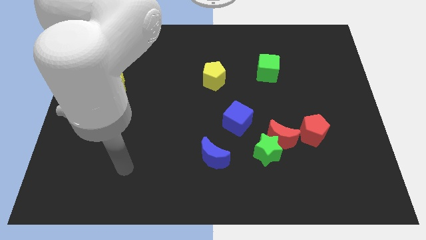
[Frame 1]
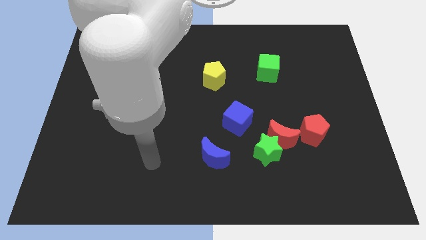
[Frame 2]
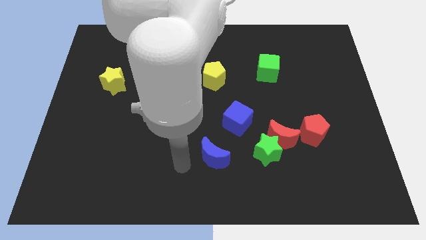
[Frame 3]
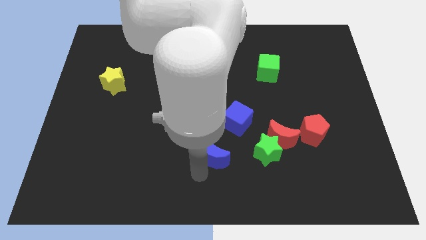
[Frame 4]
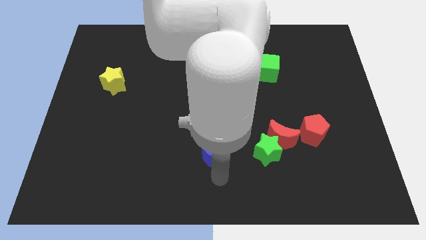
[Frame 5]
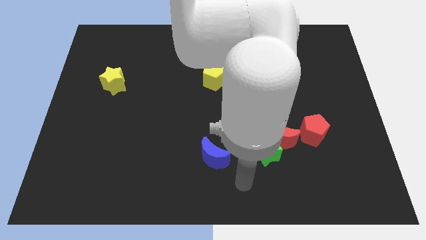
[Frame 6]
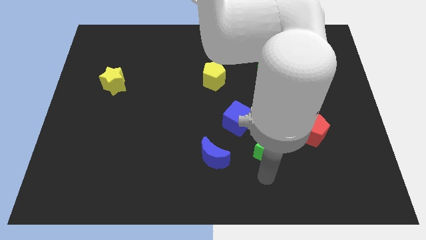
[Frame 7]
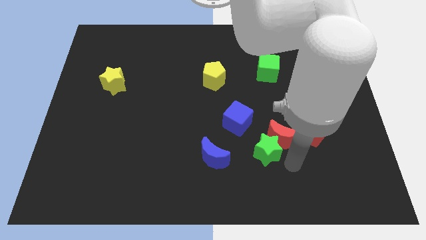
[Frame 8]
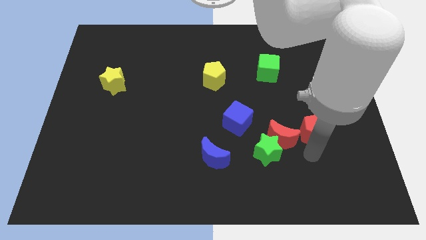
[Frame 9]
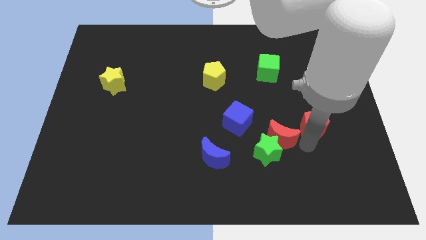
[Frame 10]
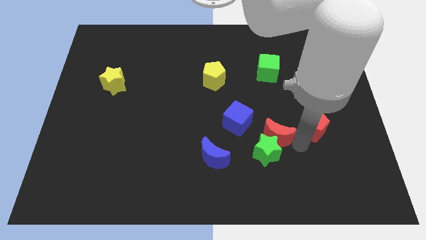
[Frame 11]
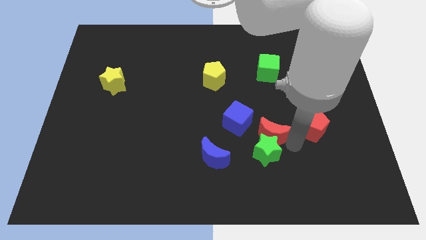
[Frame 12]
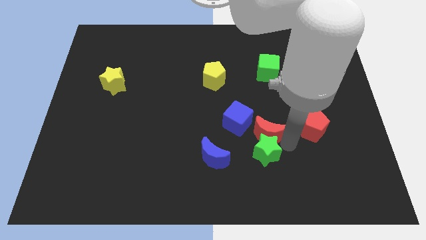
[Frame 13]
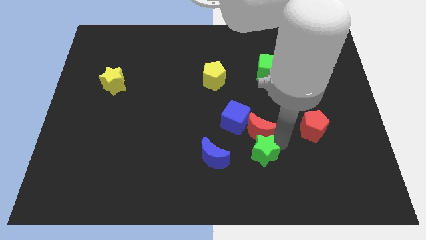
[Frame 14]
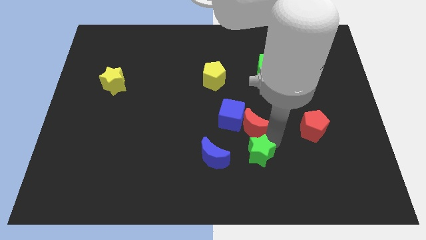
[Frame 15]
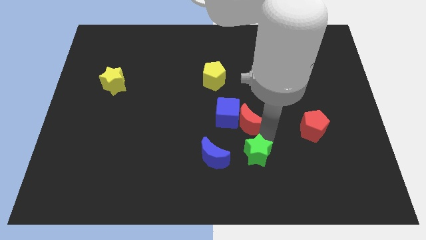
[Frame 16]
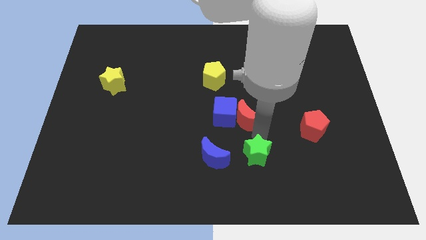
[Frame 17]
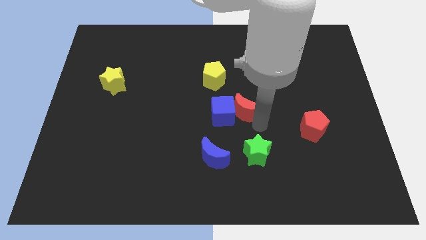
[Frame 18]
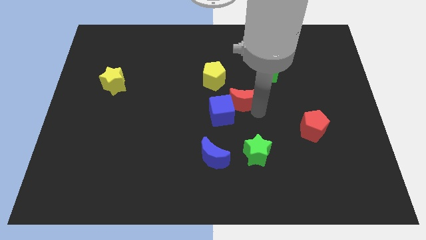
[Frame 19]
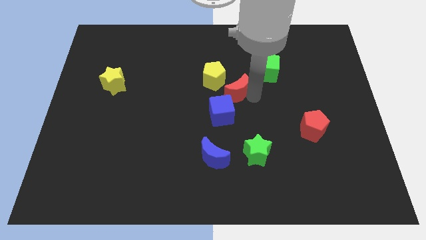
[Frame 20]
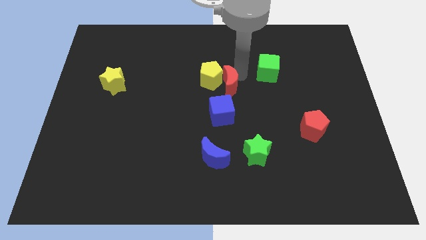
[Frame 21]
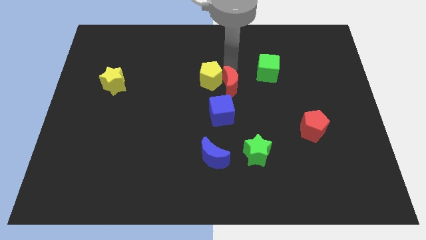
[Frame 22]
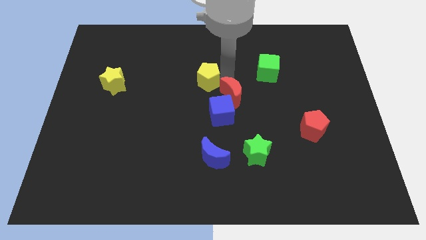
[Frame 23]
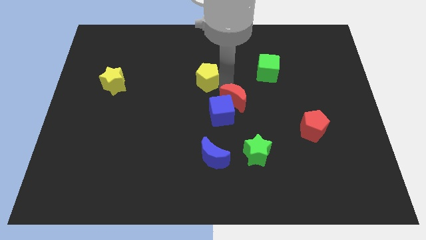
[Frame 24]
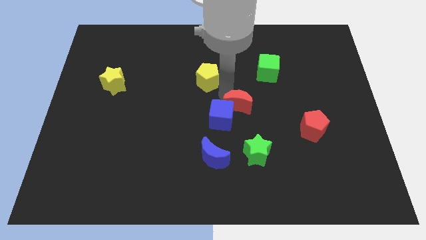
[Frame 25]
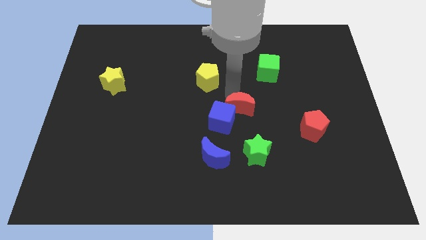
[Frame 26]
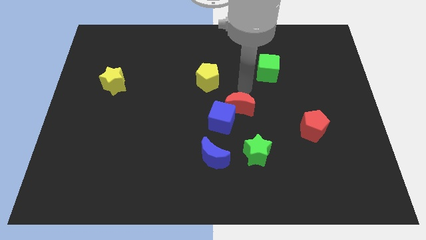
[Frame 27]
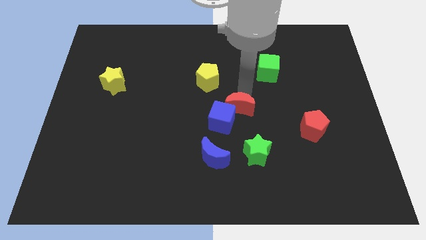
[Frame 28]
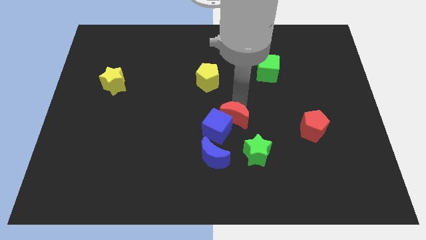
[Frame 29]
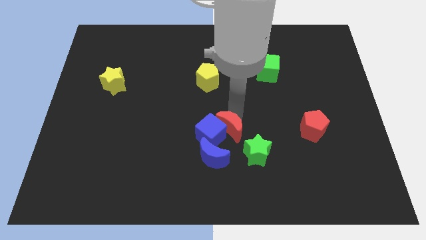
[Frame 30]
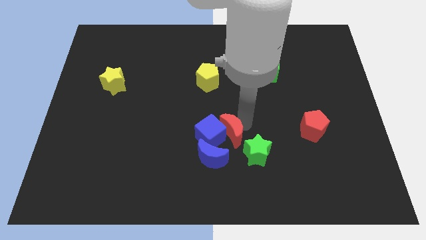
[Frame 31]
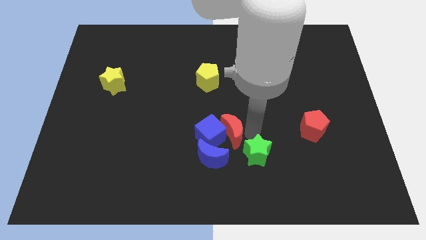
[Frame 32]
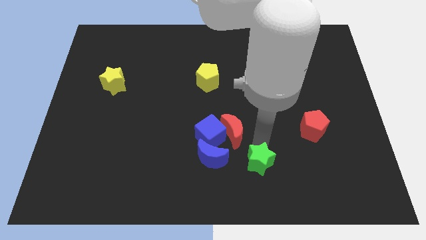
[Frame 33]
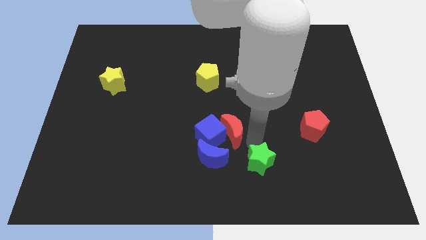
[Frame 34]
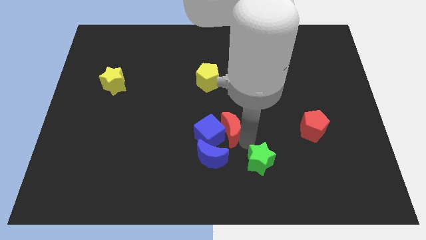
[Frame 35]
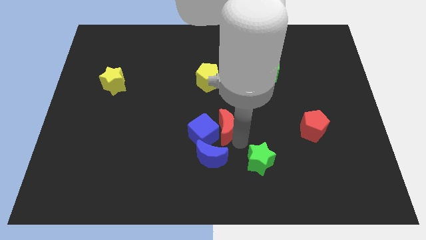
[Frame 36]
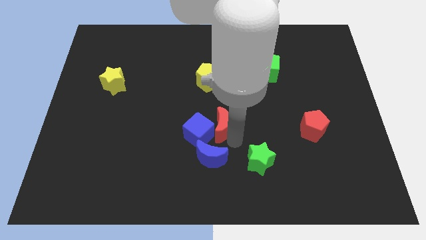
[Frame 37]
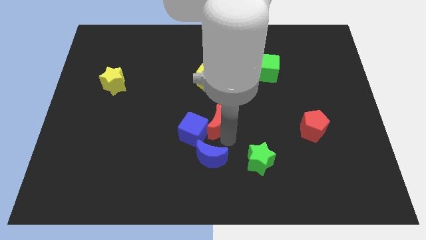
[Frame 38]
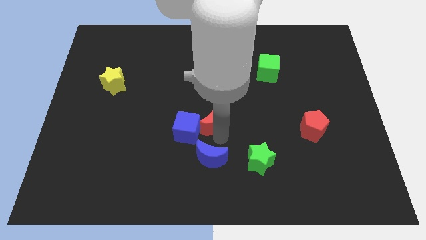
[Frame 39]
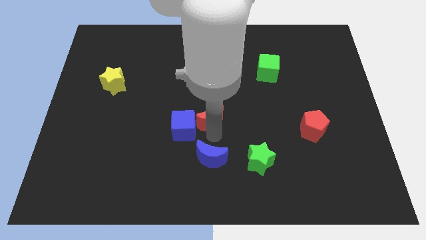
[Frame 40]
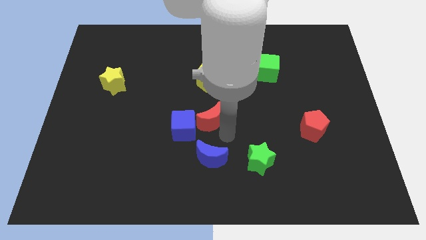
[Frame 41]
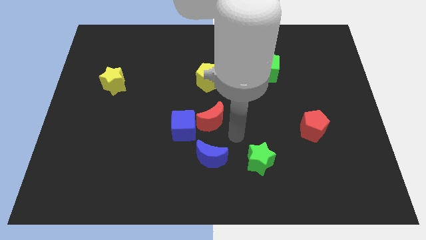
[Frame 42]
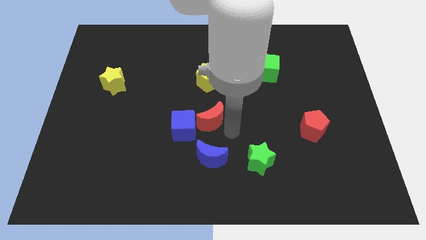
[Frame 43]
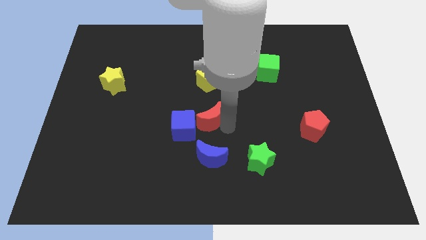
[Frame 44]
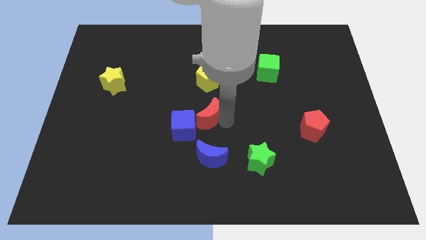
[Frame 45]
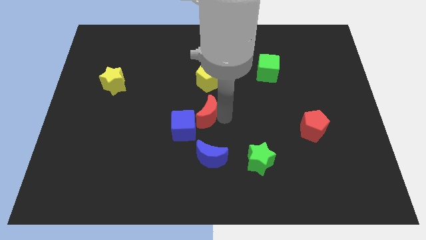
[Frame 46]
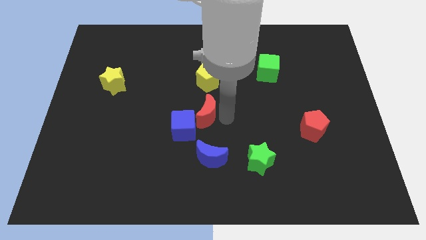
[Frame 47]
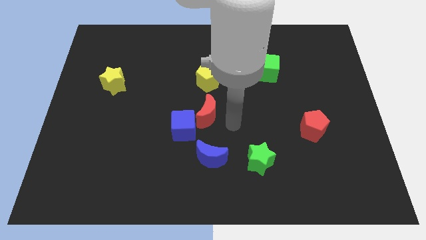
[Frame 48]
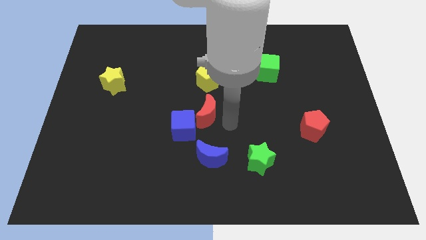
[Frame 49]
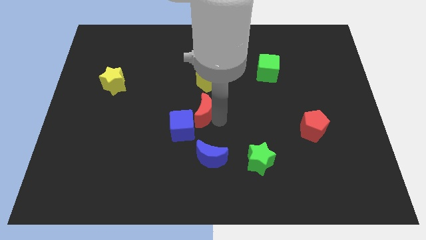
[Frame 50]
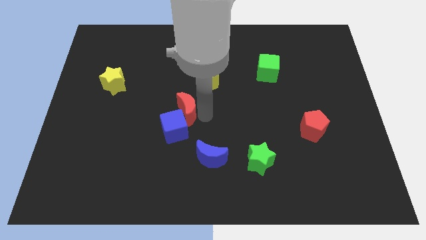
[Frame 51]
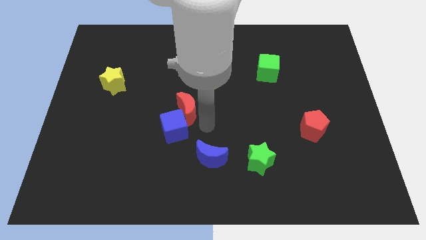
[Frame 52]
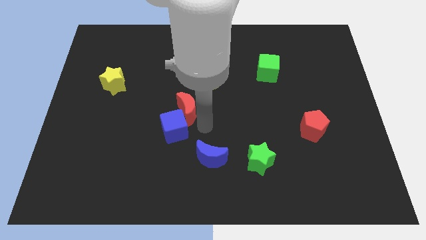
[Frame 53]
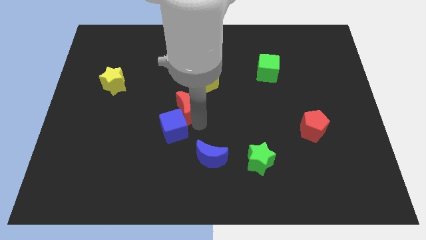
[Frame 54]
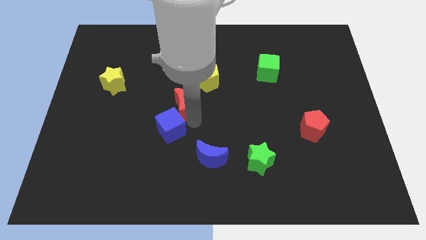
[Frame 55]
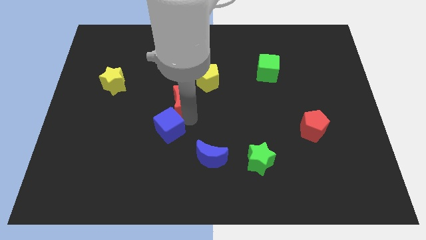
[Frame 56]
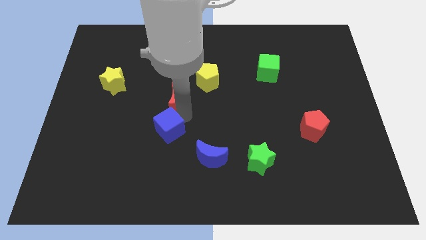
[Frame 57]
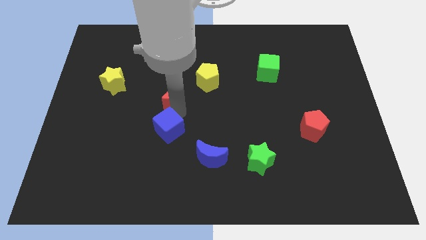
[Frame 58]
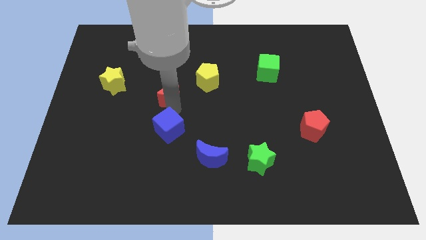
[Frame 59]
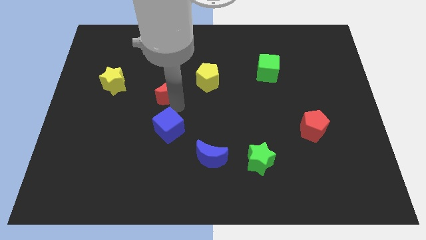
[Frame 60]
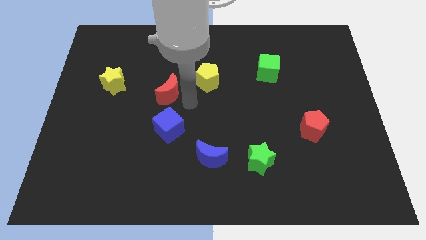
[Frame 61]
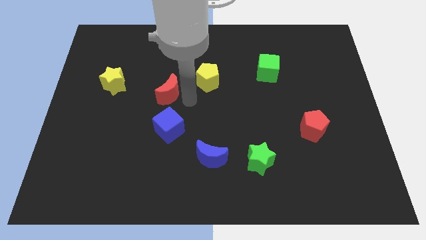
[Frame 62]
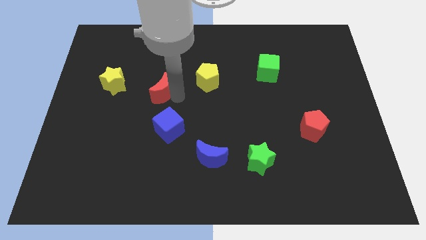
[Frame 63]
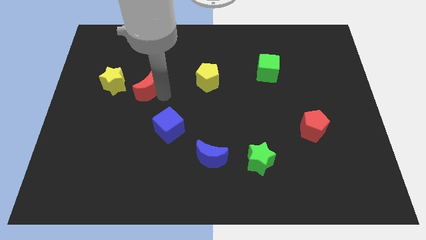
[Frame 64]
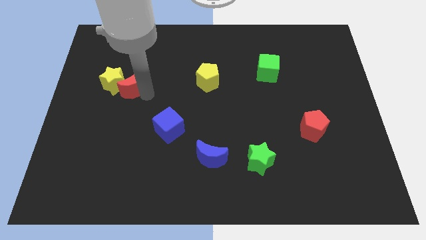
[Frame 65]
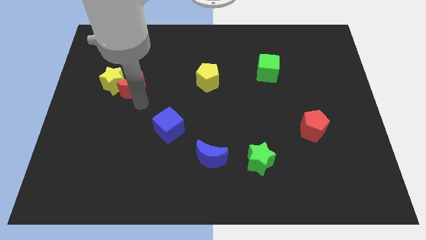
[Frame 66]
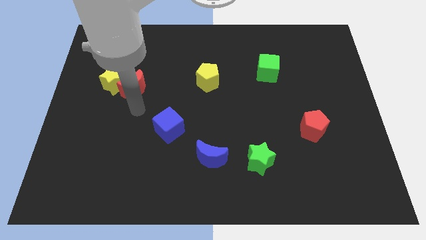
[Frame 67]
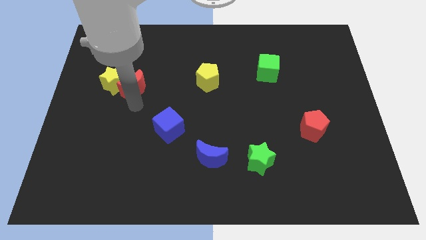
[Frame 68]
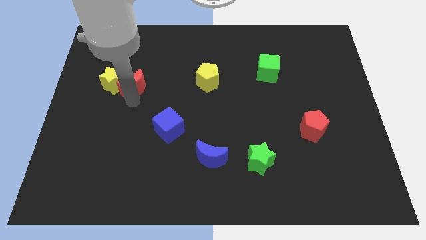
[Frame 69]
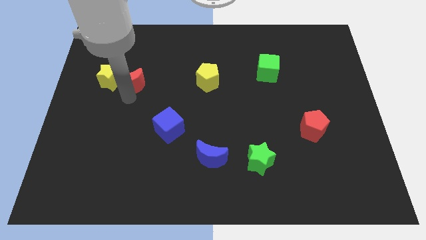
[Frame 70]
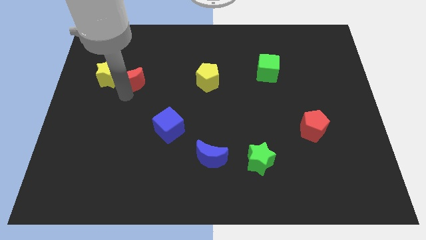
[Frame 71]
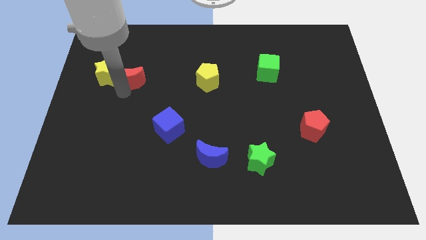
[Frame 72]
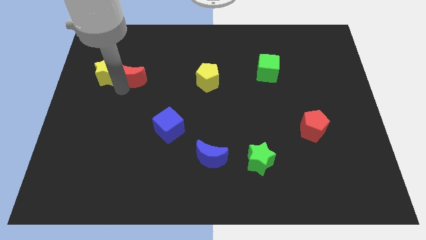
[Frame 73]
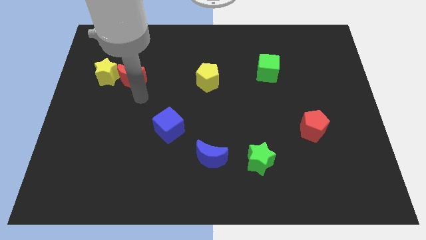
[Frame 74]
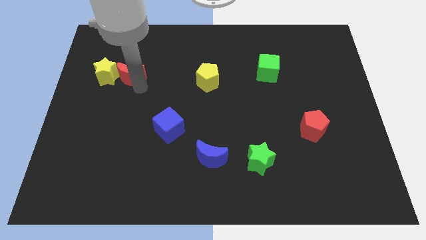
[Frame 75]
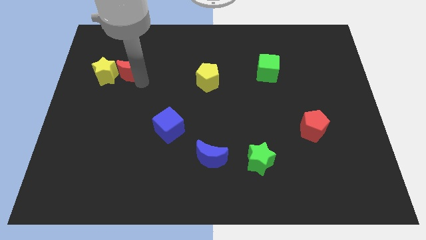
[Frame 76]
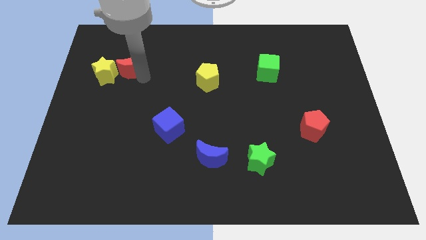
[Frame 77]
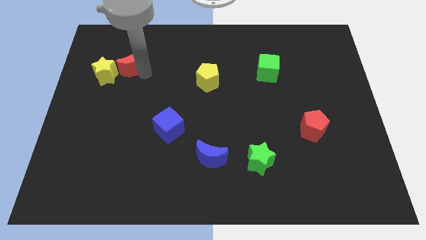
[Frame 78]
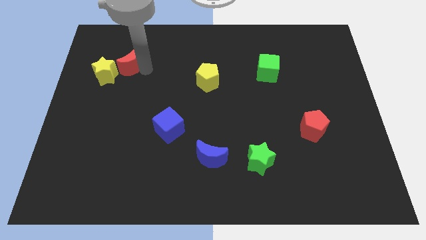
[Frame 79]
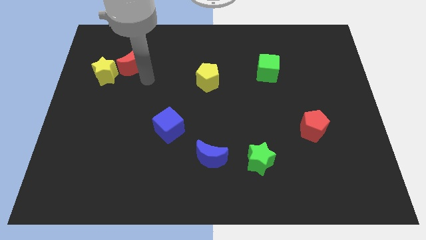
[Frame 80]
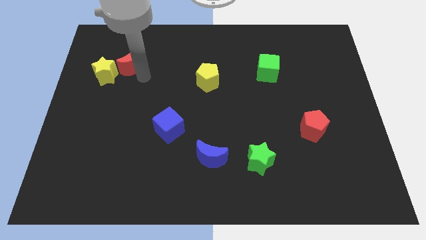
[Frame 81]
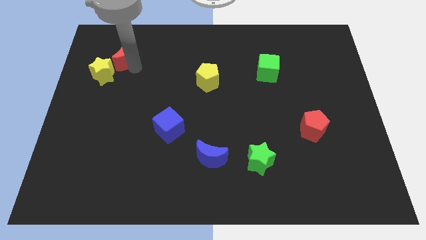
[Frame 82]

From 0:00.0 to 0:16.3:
slide the red moon to the top of the yellow star
